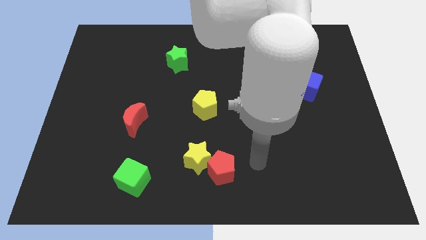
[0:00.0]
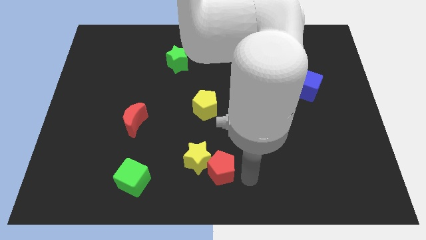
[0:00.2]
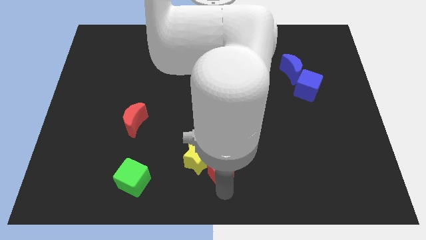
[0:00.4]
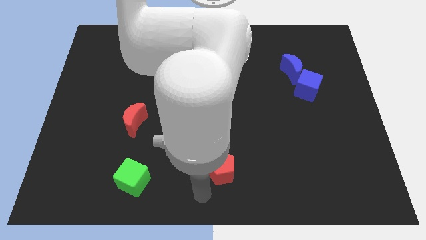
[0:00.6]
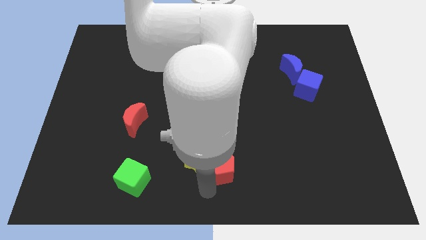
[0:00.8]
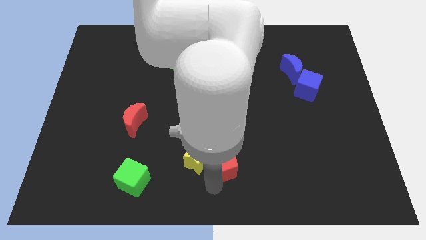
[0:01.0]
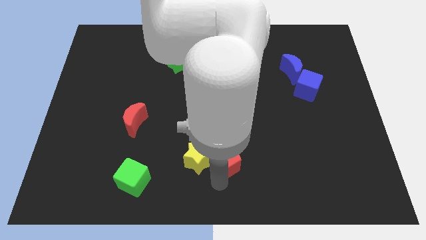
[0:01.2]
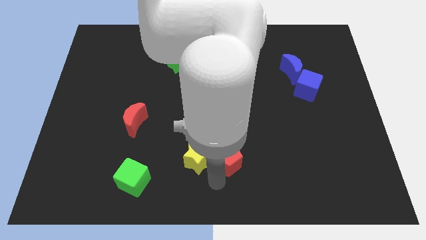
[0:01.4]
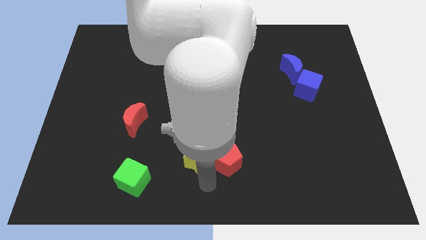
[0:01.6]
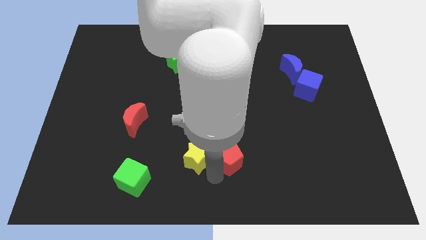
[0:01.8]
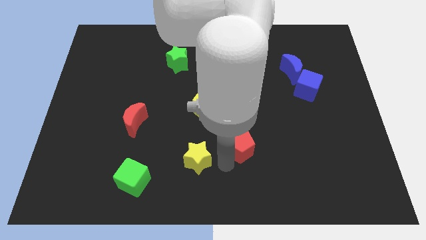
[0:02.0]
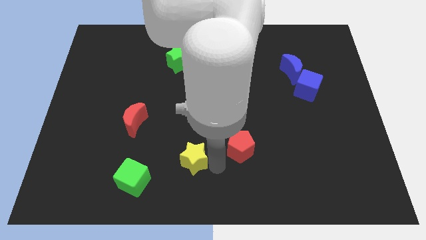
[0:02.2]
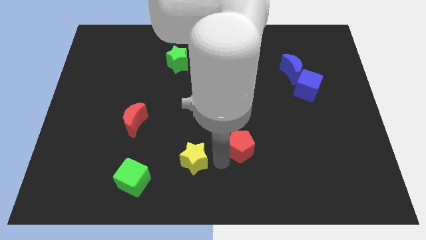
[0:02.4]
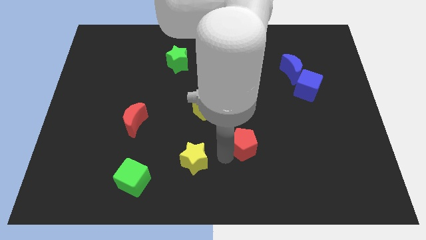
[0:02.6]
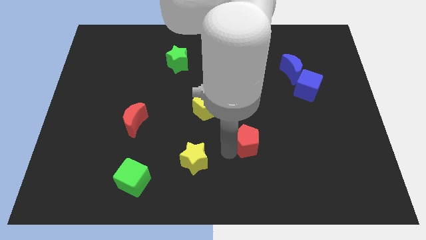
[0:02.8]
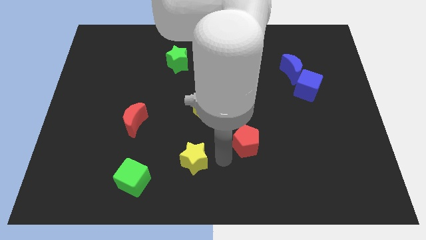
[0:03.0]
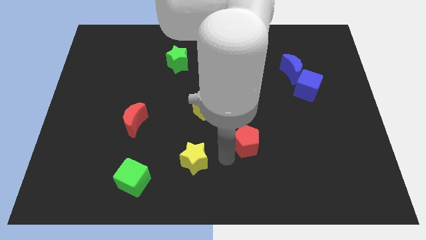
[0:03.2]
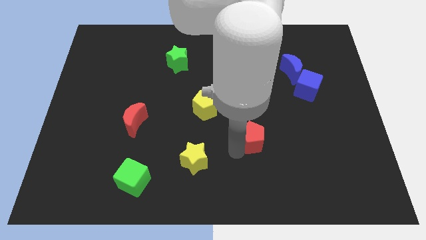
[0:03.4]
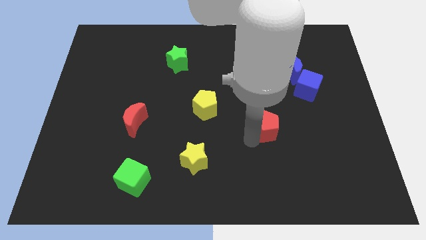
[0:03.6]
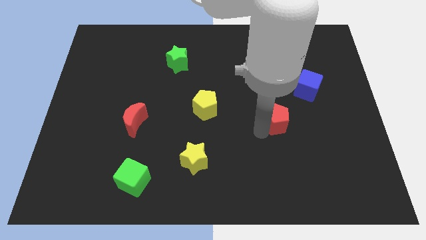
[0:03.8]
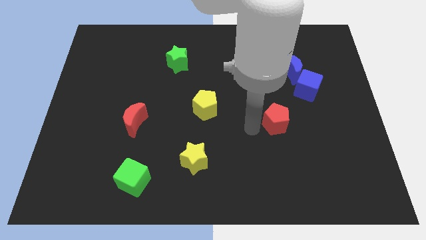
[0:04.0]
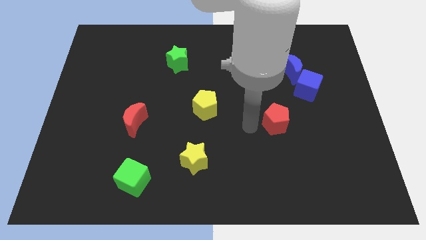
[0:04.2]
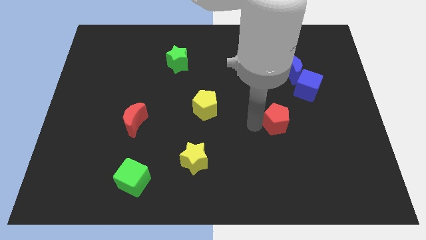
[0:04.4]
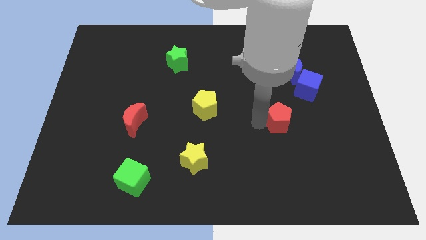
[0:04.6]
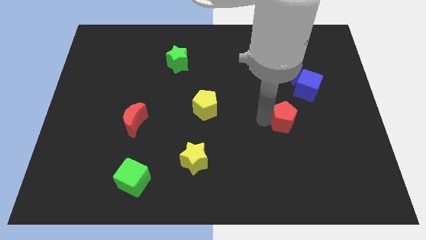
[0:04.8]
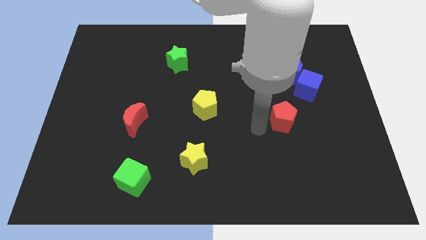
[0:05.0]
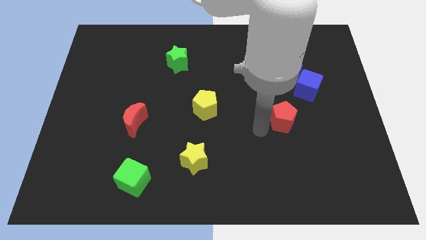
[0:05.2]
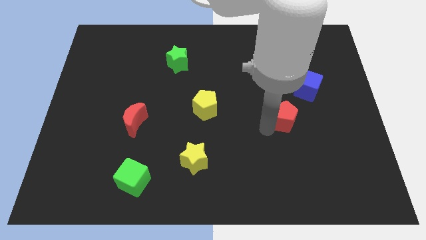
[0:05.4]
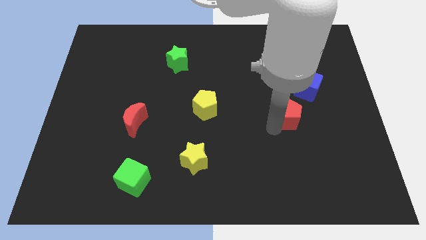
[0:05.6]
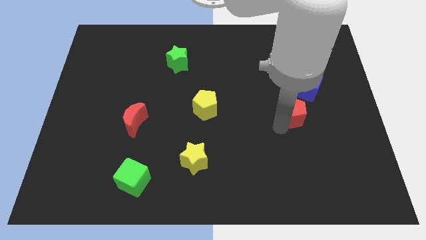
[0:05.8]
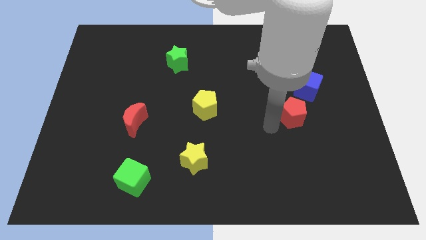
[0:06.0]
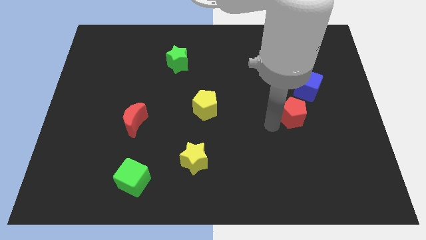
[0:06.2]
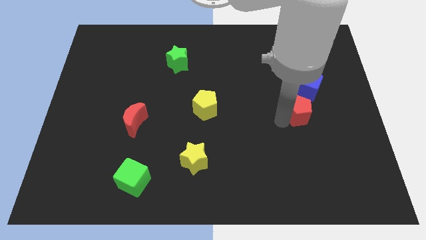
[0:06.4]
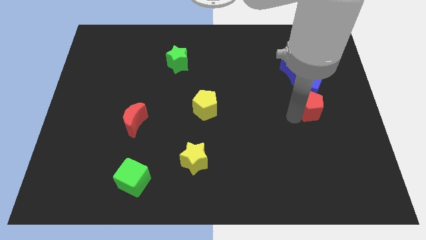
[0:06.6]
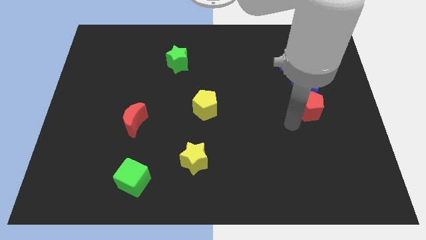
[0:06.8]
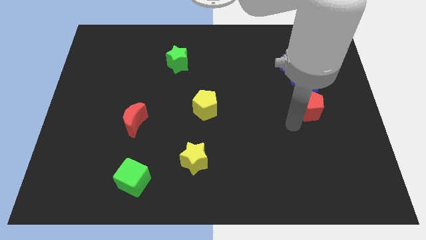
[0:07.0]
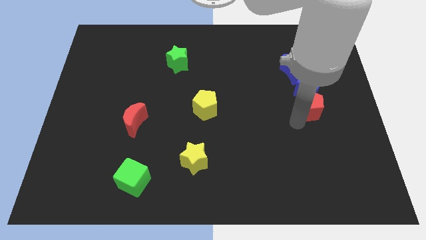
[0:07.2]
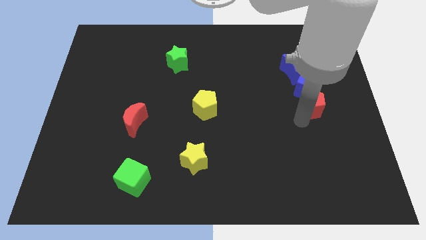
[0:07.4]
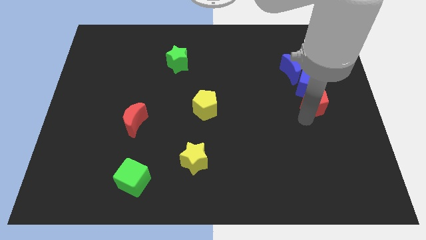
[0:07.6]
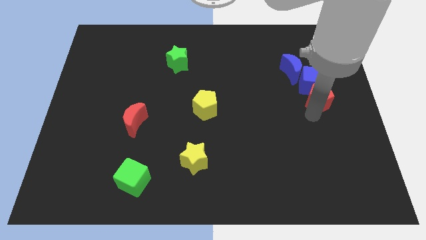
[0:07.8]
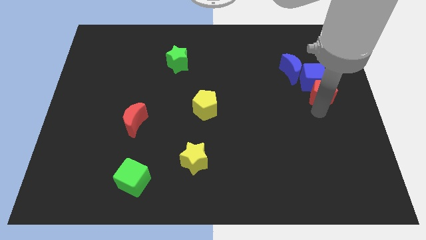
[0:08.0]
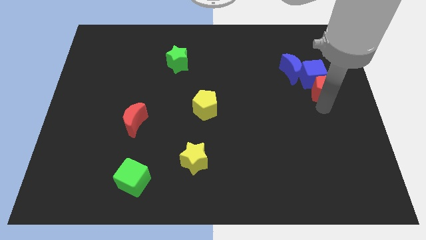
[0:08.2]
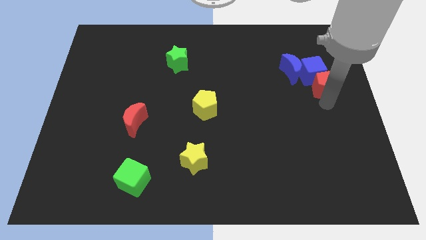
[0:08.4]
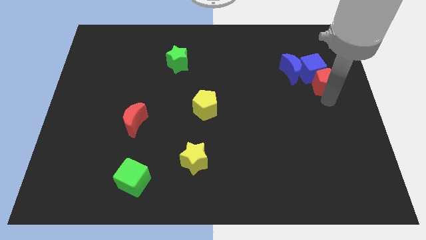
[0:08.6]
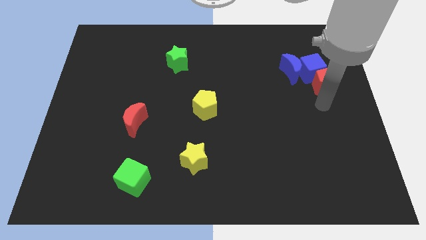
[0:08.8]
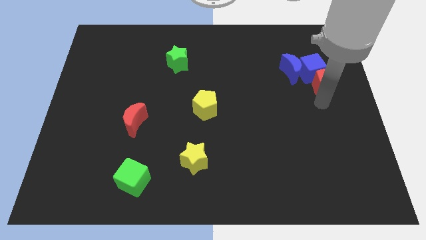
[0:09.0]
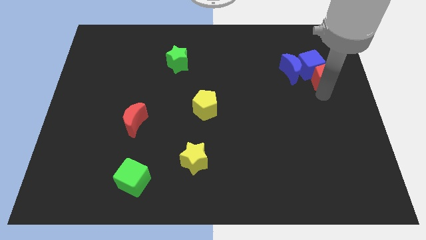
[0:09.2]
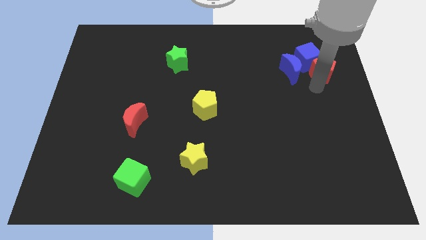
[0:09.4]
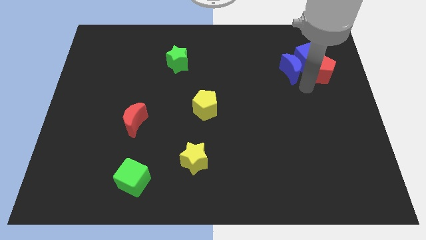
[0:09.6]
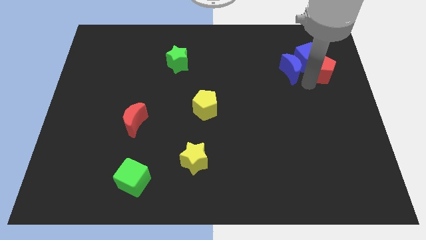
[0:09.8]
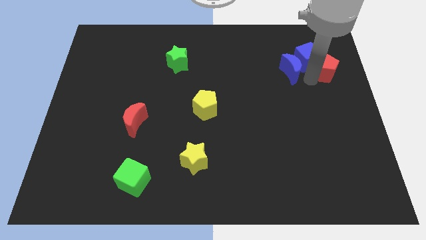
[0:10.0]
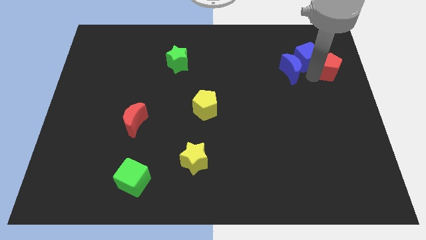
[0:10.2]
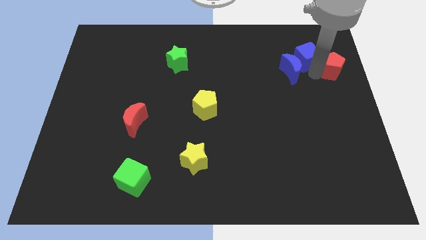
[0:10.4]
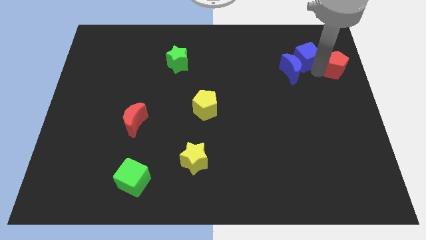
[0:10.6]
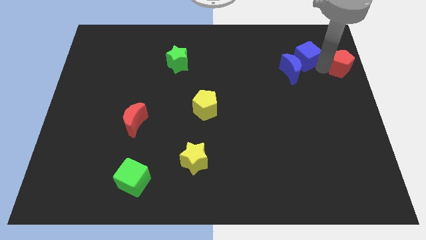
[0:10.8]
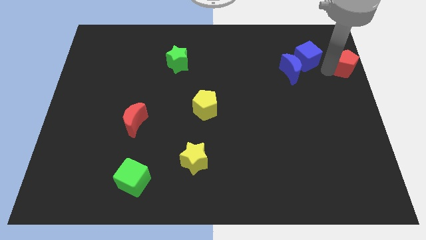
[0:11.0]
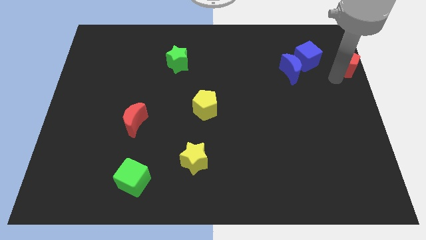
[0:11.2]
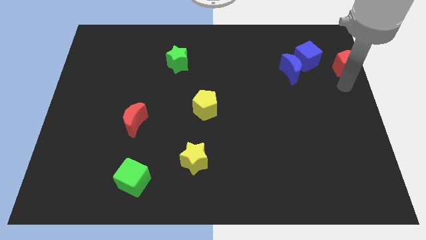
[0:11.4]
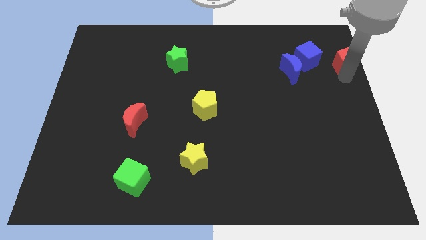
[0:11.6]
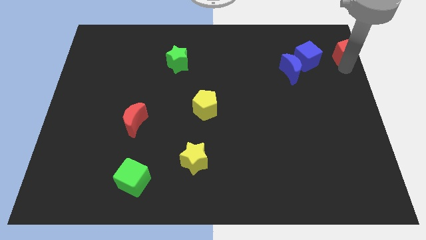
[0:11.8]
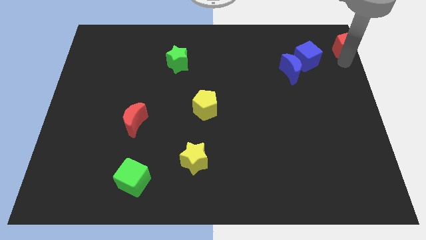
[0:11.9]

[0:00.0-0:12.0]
slide the red pentagon to the top right corner

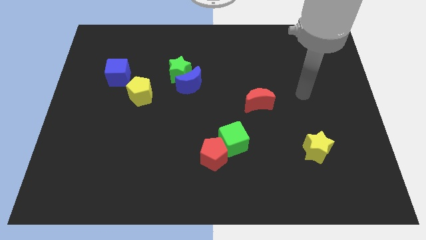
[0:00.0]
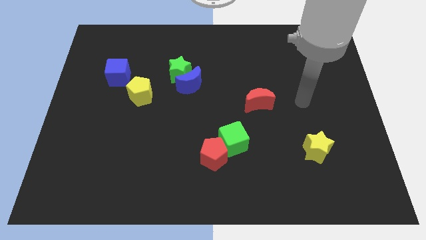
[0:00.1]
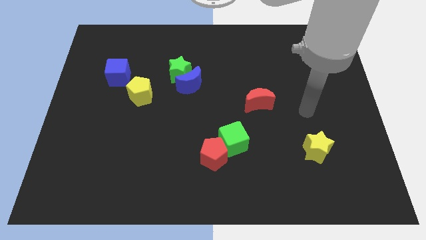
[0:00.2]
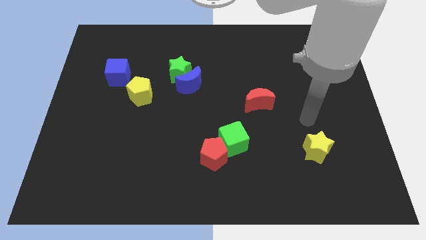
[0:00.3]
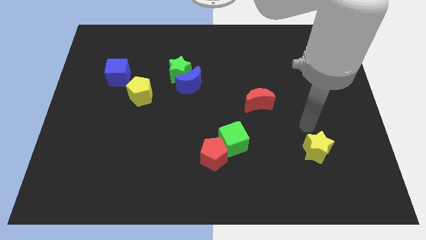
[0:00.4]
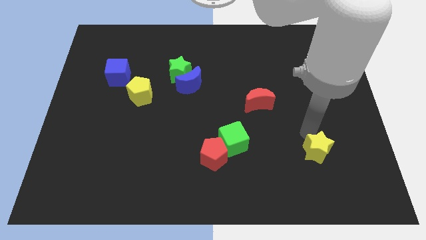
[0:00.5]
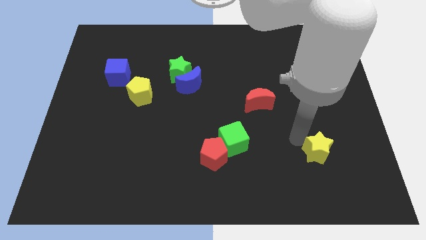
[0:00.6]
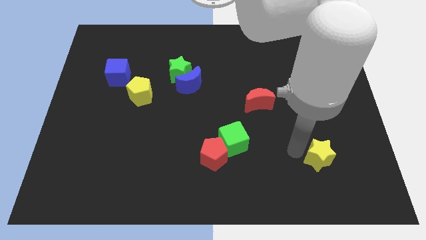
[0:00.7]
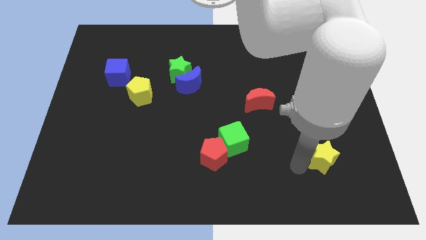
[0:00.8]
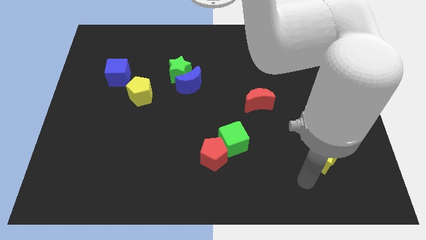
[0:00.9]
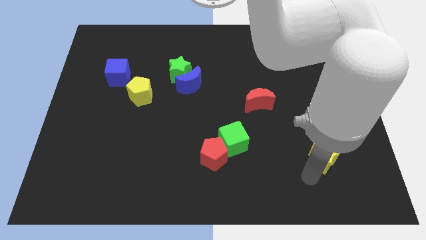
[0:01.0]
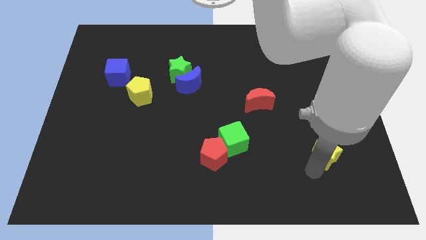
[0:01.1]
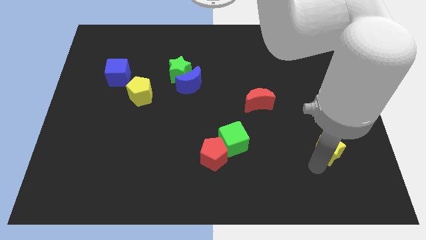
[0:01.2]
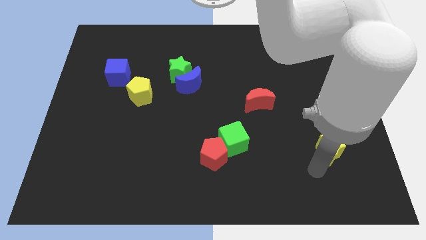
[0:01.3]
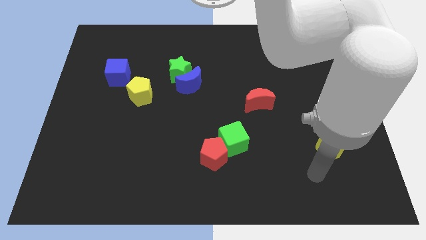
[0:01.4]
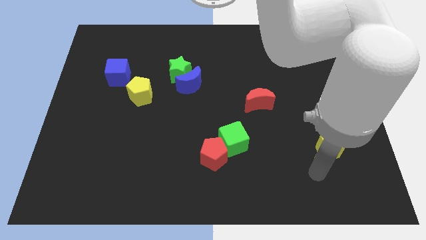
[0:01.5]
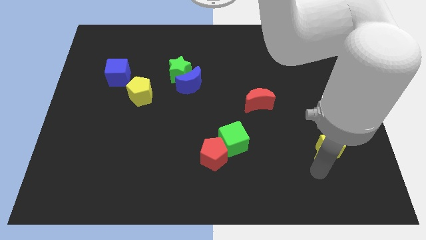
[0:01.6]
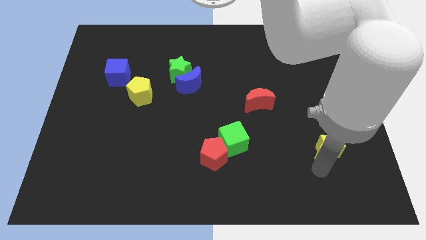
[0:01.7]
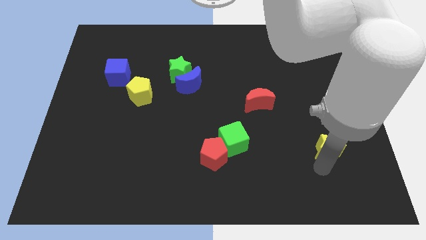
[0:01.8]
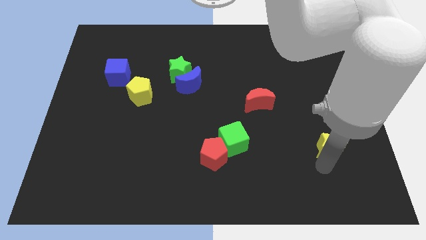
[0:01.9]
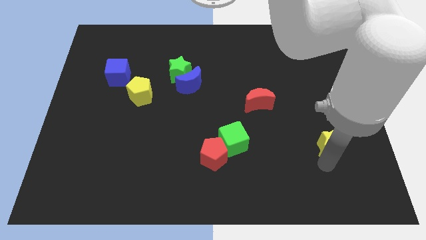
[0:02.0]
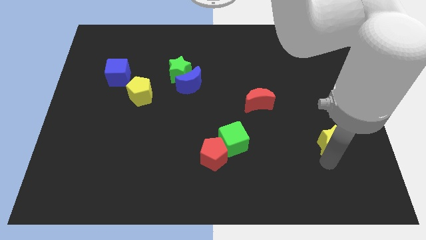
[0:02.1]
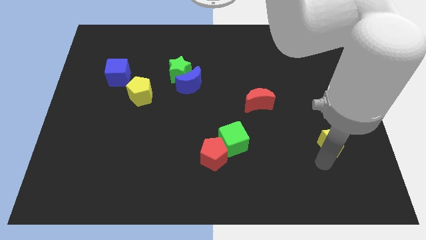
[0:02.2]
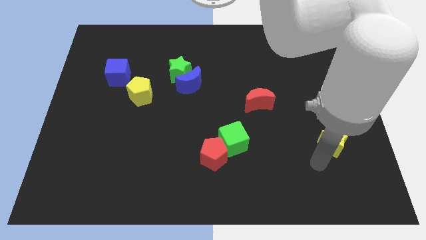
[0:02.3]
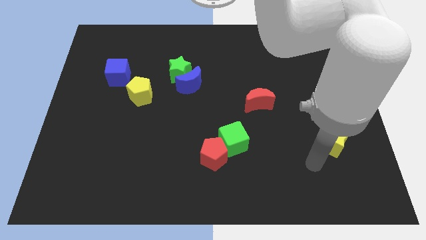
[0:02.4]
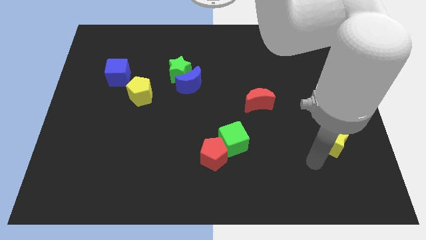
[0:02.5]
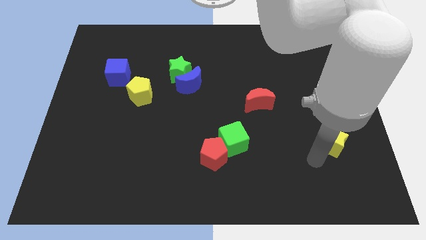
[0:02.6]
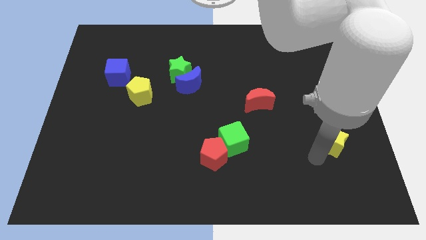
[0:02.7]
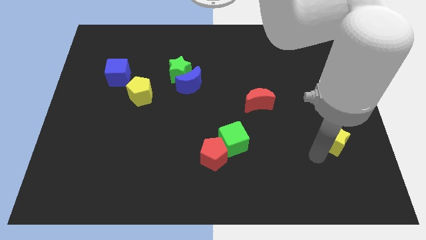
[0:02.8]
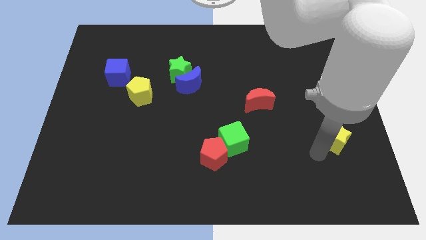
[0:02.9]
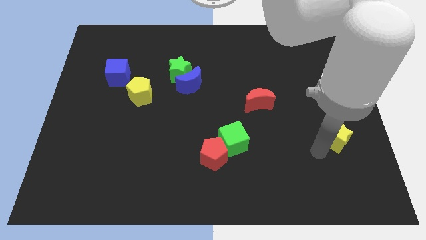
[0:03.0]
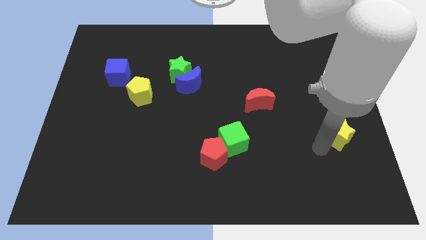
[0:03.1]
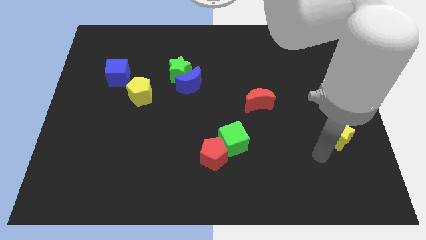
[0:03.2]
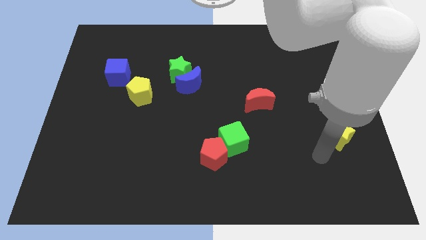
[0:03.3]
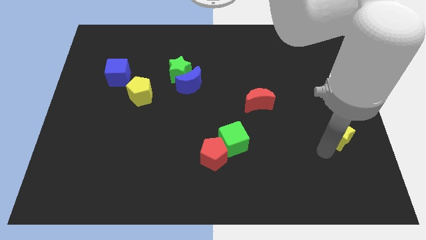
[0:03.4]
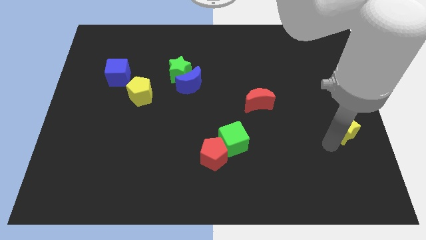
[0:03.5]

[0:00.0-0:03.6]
put the yellow star to the center right
